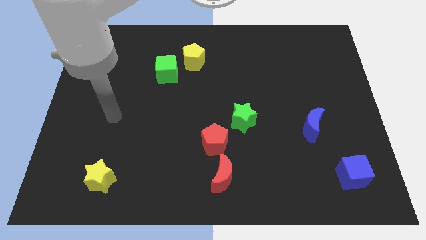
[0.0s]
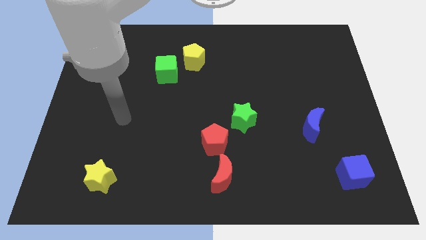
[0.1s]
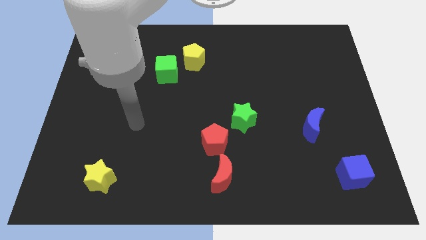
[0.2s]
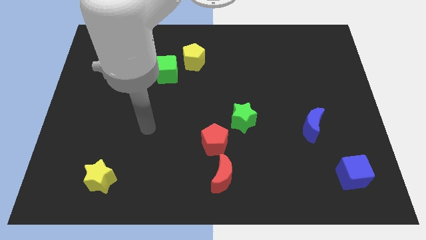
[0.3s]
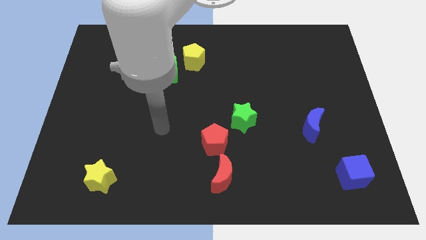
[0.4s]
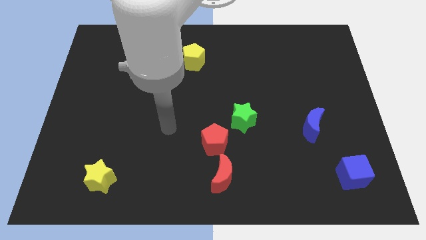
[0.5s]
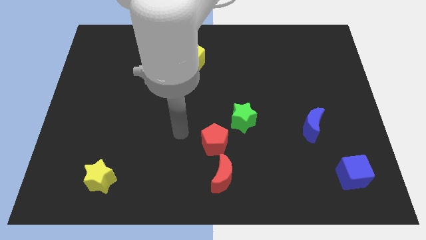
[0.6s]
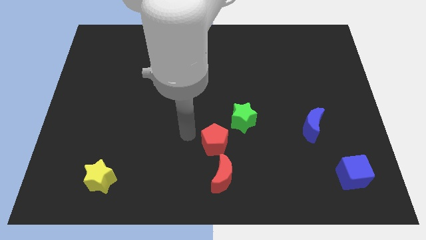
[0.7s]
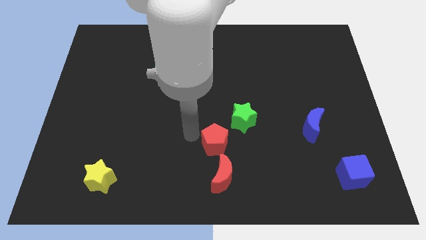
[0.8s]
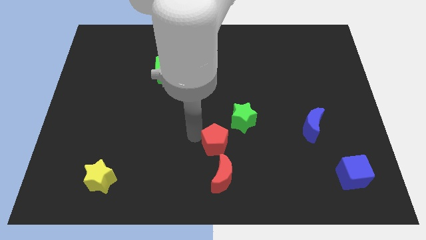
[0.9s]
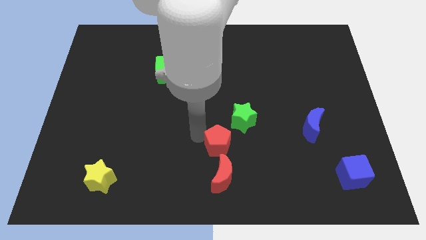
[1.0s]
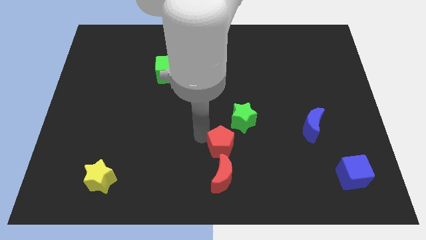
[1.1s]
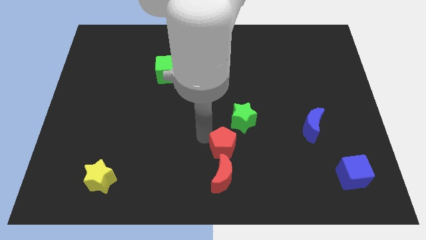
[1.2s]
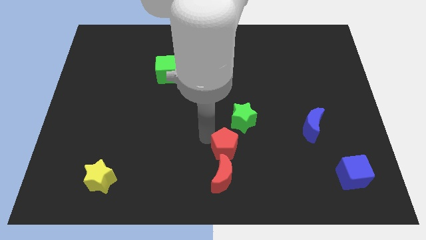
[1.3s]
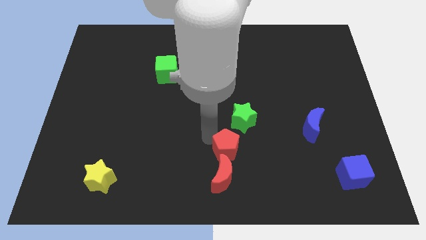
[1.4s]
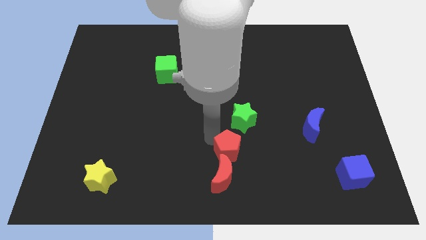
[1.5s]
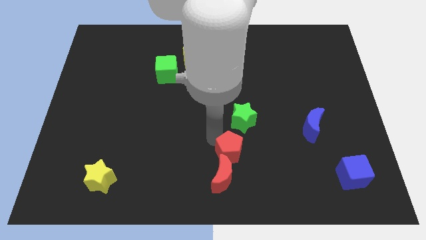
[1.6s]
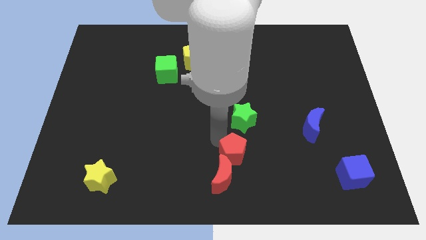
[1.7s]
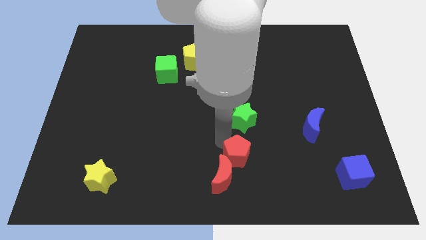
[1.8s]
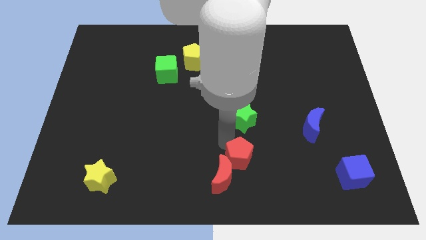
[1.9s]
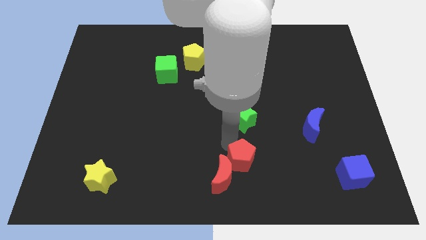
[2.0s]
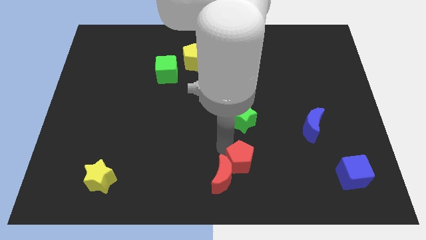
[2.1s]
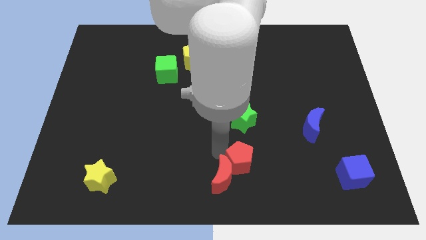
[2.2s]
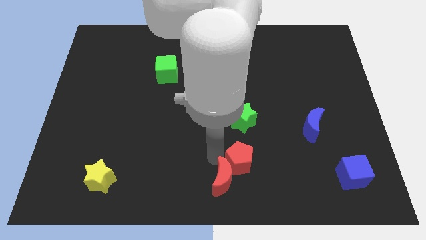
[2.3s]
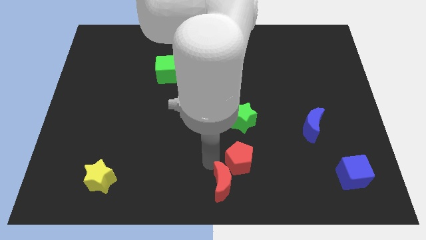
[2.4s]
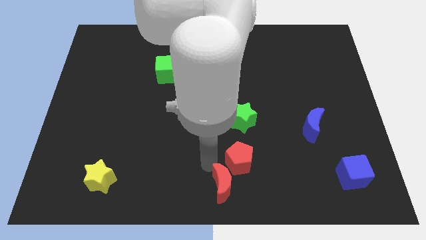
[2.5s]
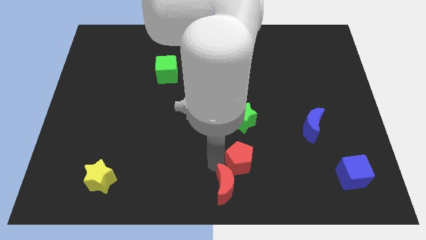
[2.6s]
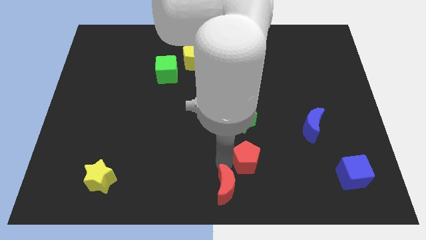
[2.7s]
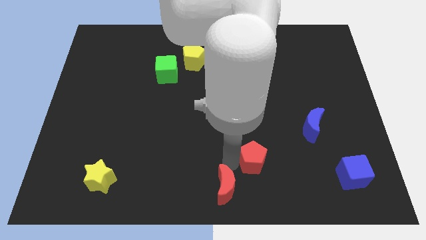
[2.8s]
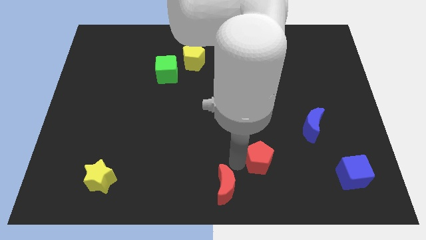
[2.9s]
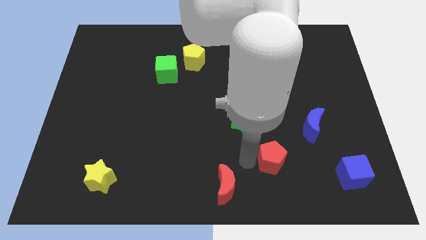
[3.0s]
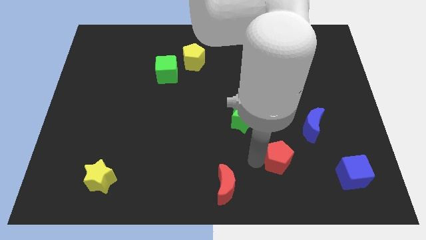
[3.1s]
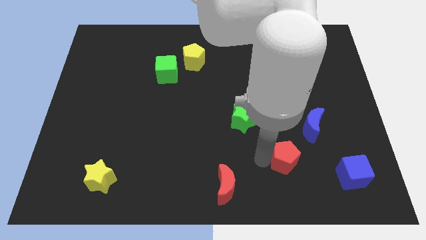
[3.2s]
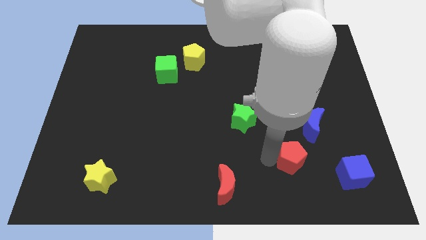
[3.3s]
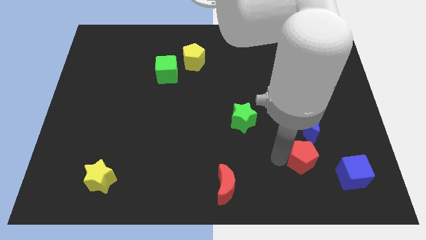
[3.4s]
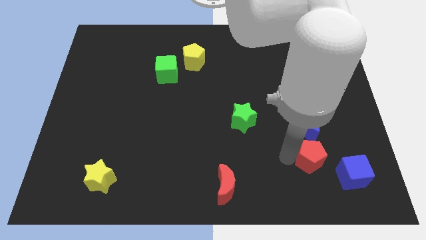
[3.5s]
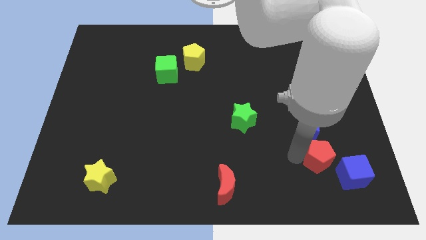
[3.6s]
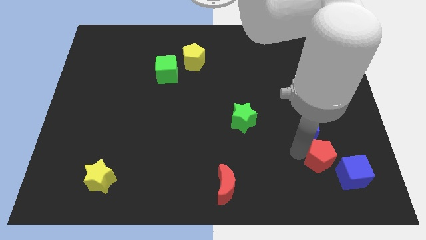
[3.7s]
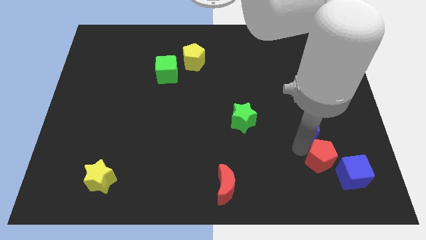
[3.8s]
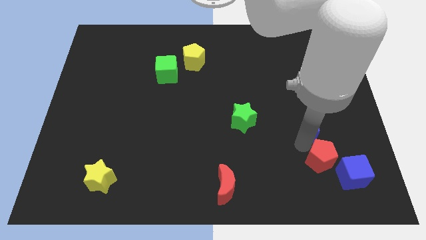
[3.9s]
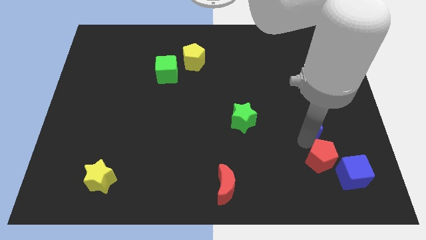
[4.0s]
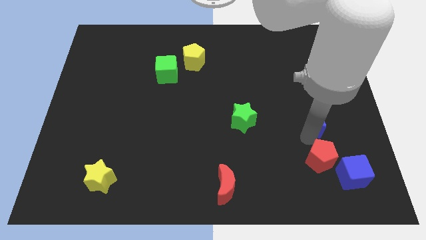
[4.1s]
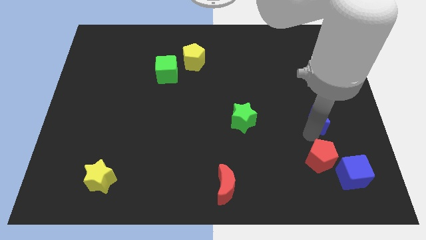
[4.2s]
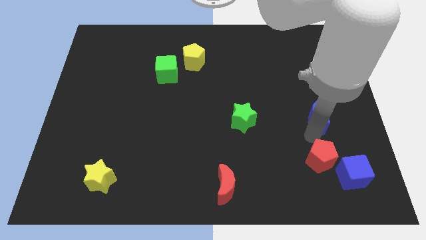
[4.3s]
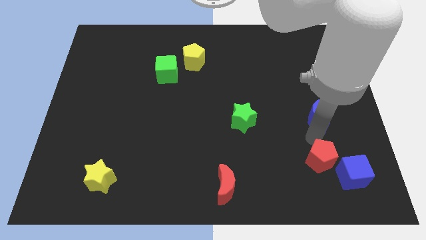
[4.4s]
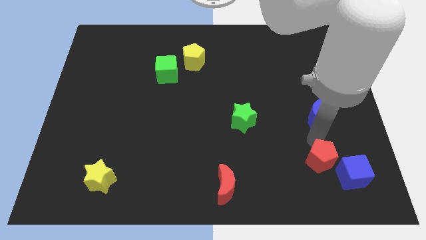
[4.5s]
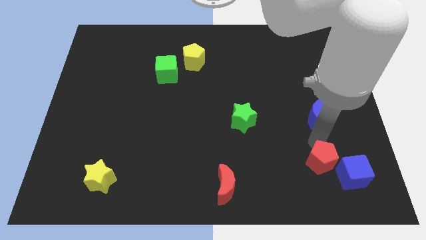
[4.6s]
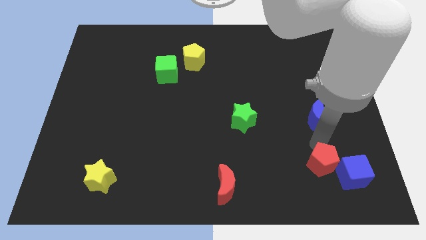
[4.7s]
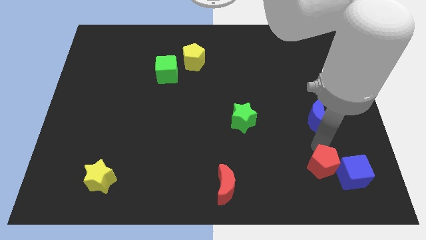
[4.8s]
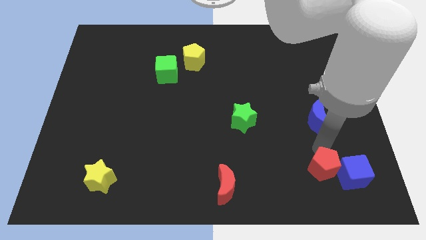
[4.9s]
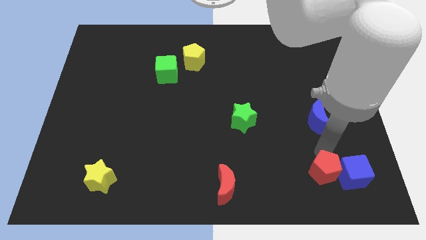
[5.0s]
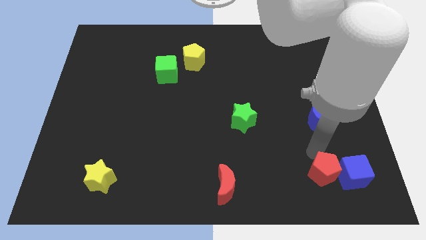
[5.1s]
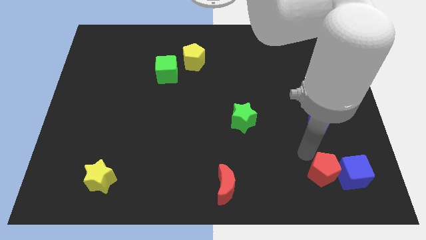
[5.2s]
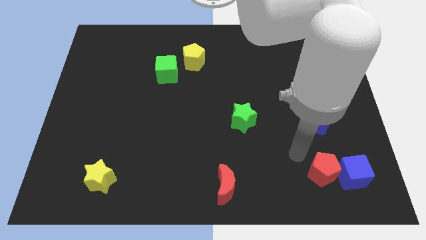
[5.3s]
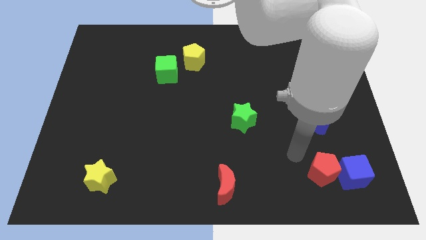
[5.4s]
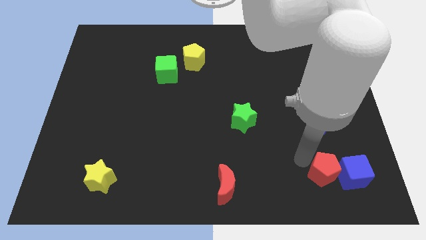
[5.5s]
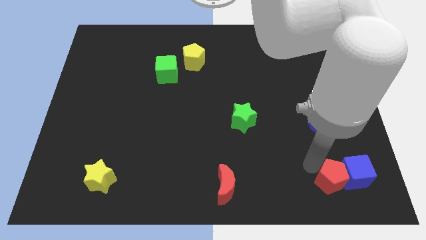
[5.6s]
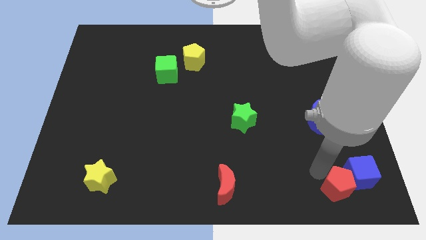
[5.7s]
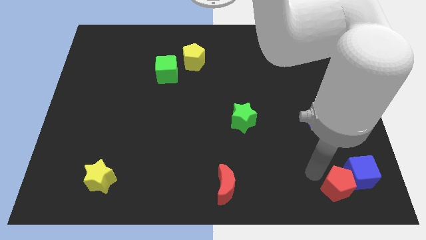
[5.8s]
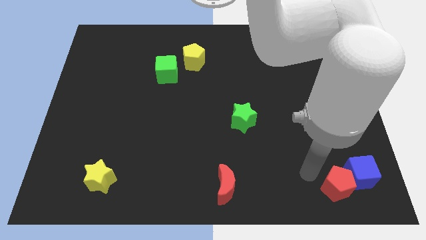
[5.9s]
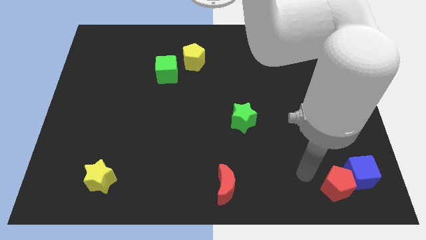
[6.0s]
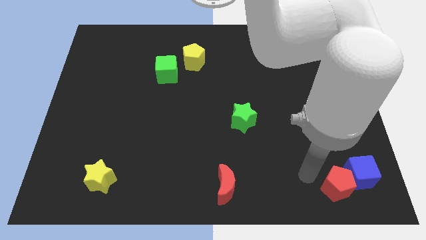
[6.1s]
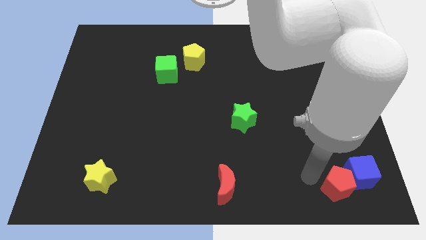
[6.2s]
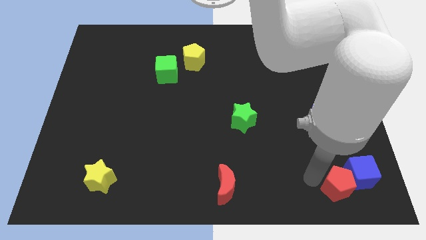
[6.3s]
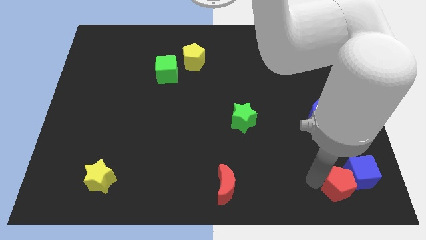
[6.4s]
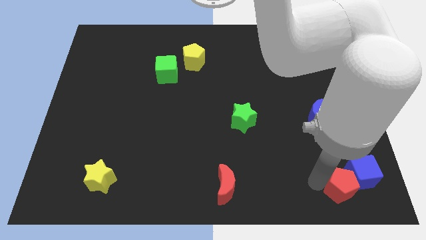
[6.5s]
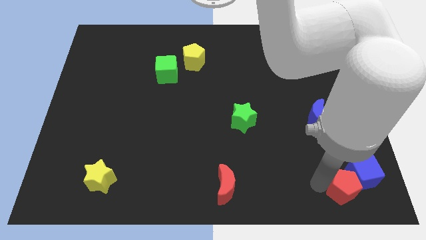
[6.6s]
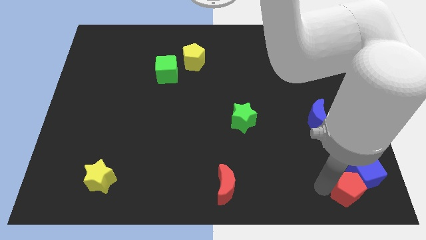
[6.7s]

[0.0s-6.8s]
push the red pentagon to the lower right corner
